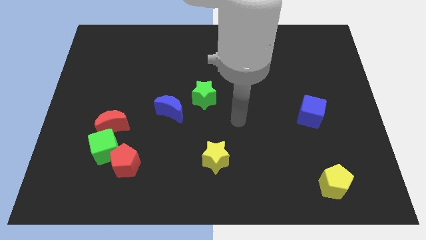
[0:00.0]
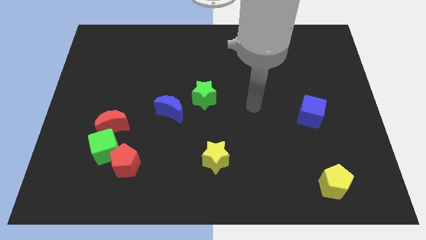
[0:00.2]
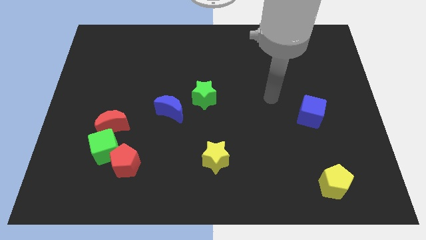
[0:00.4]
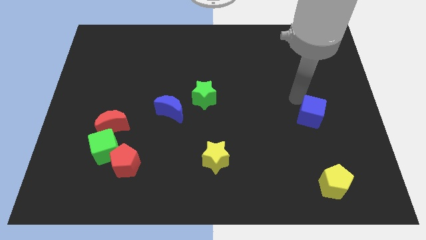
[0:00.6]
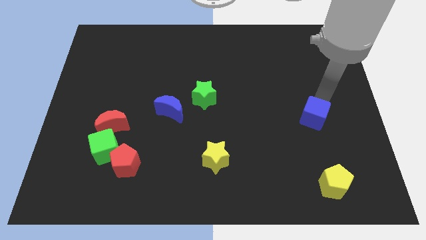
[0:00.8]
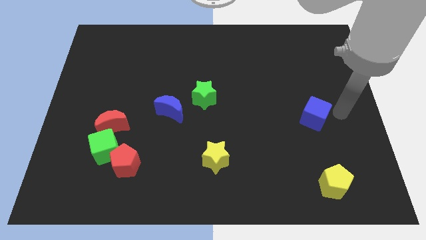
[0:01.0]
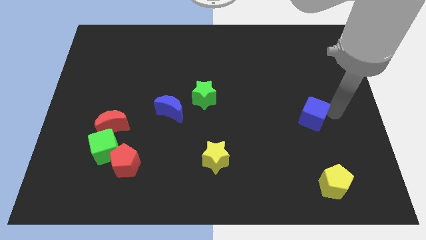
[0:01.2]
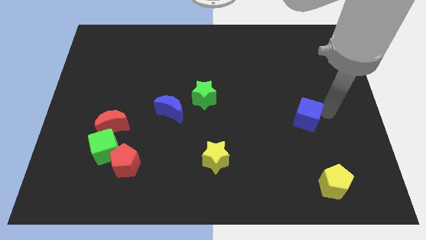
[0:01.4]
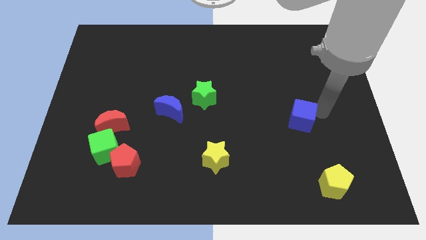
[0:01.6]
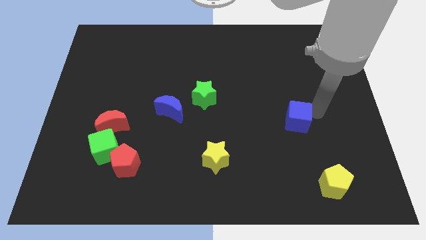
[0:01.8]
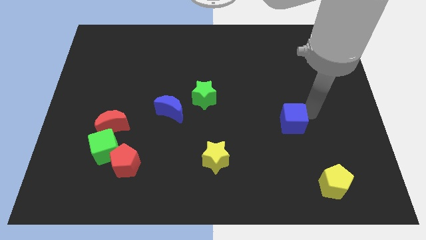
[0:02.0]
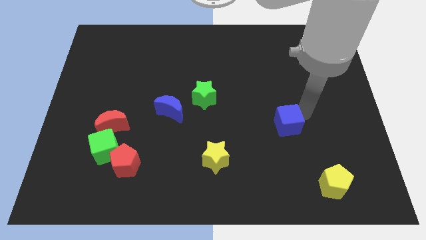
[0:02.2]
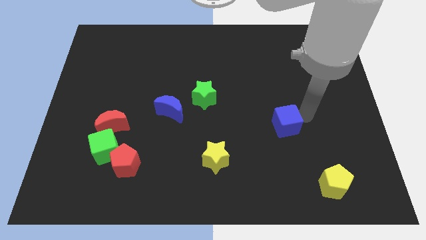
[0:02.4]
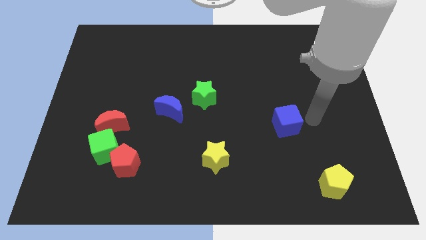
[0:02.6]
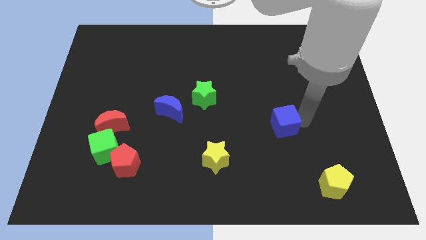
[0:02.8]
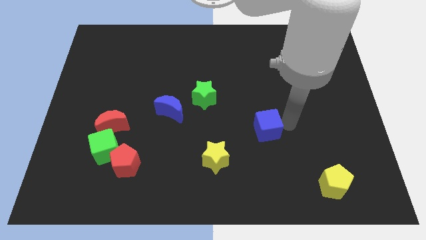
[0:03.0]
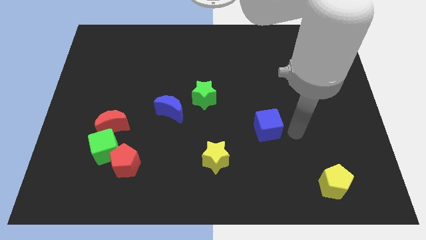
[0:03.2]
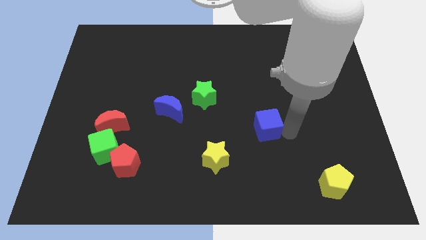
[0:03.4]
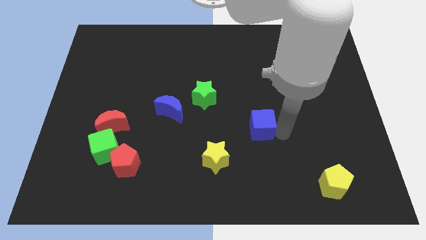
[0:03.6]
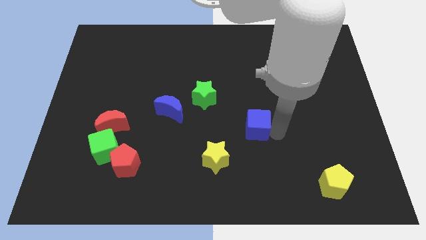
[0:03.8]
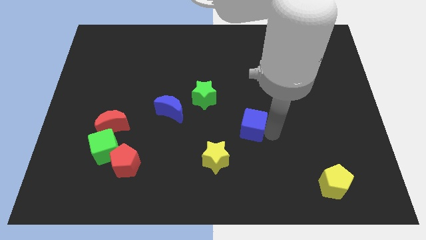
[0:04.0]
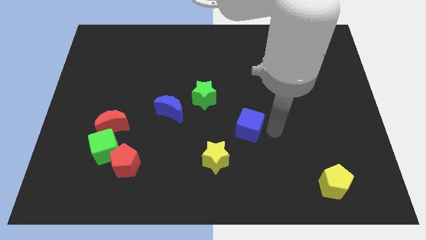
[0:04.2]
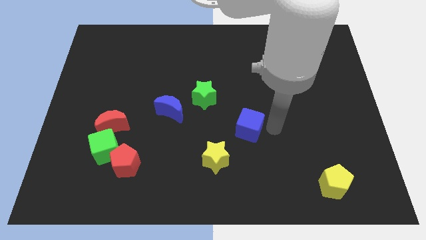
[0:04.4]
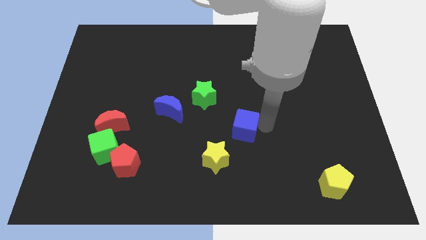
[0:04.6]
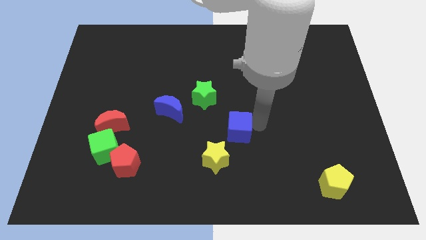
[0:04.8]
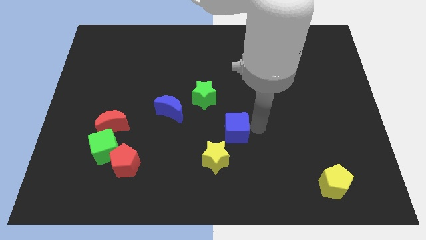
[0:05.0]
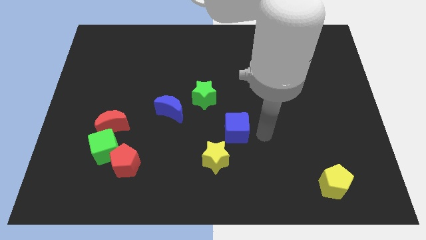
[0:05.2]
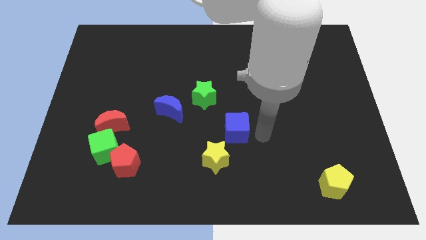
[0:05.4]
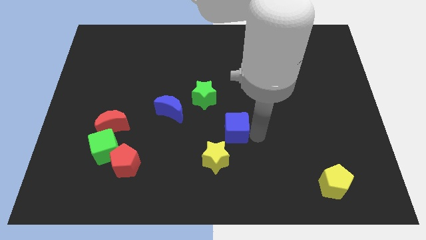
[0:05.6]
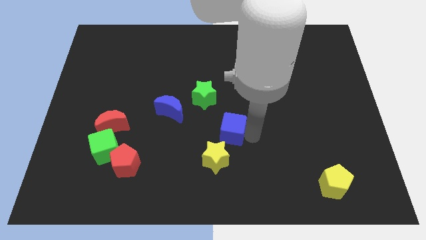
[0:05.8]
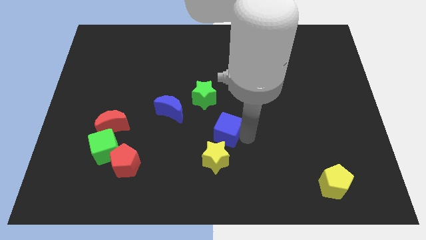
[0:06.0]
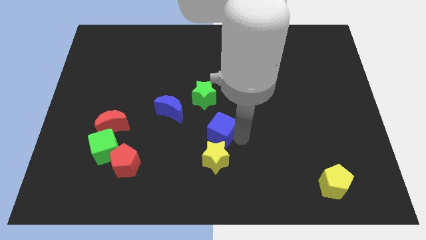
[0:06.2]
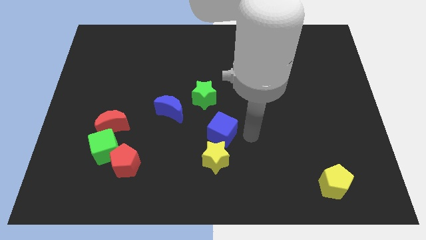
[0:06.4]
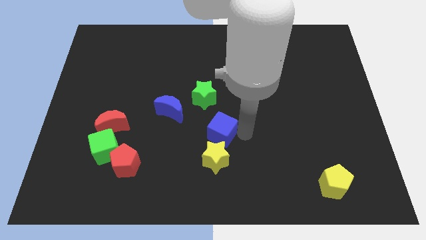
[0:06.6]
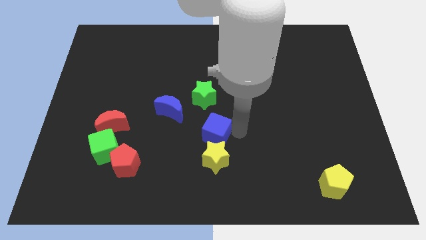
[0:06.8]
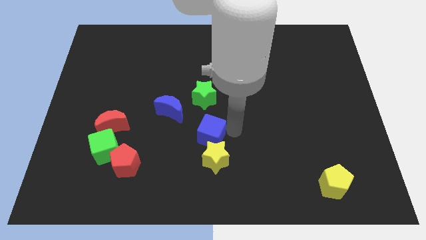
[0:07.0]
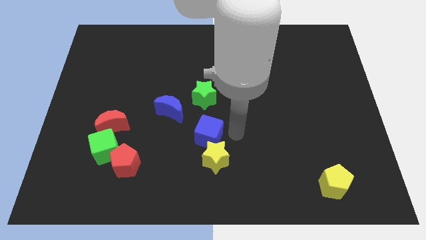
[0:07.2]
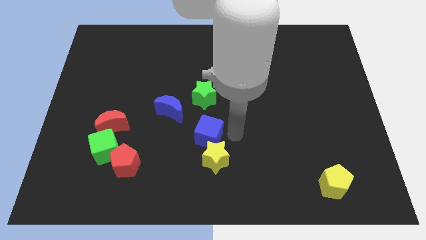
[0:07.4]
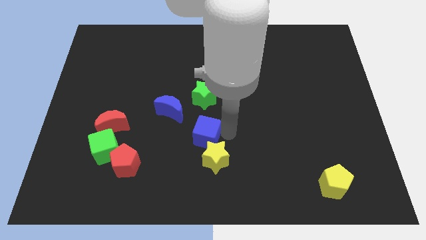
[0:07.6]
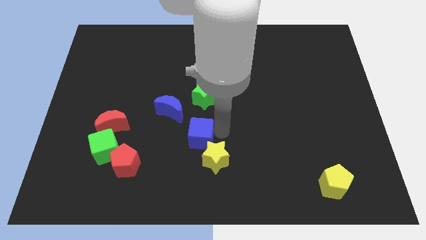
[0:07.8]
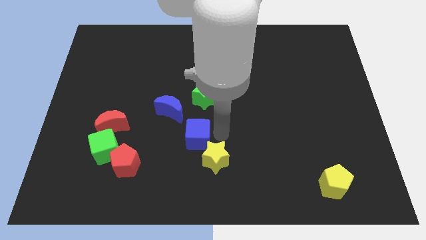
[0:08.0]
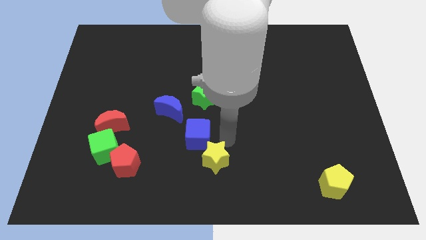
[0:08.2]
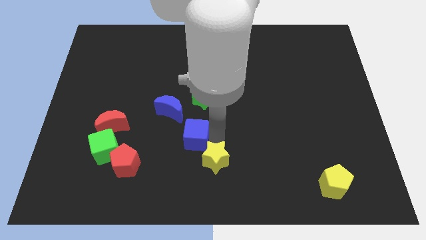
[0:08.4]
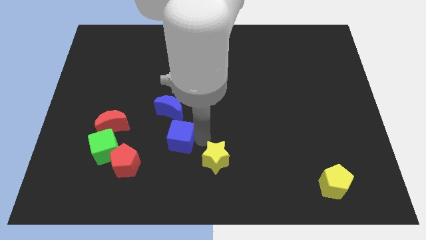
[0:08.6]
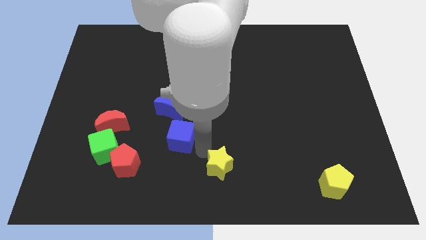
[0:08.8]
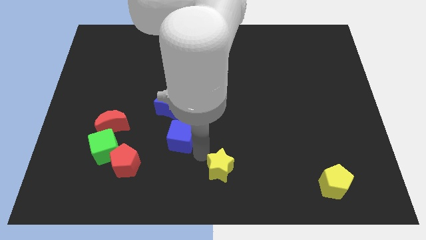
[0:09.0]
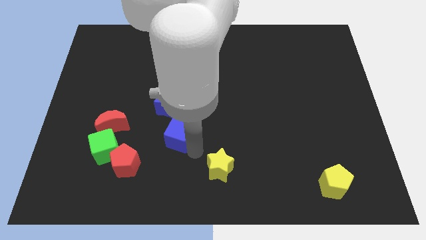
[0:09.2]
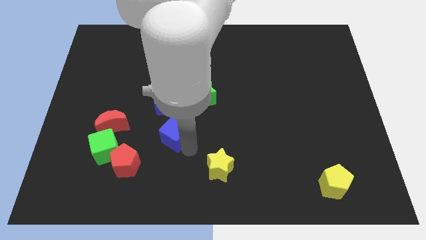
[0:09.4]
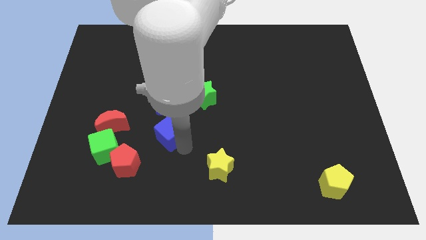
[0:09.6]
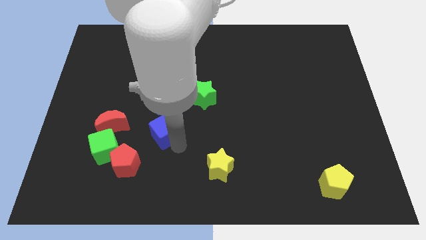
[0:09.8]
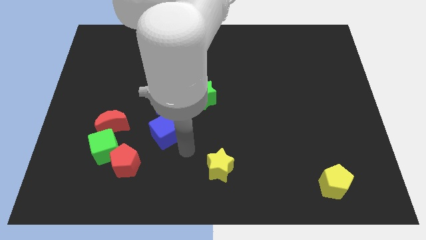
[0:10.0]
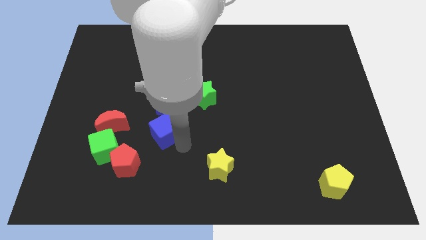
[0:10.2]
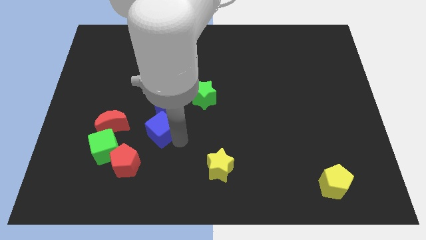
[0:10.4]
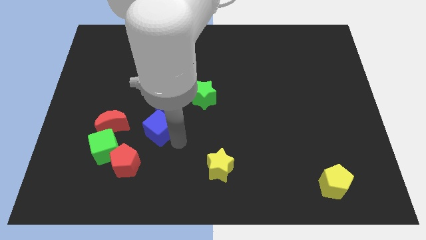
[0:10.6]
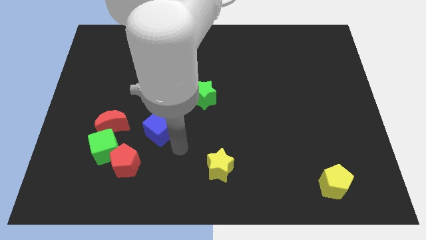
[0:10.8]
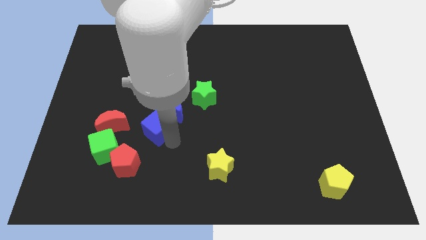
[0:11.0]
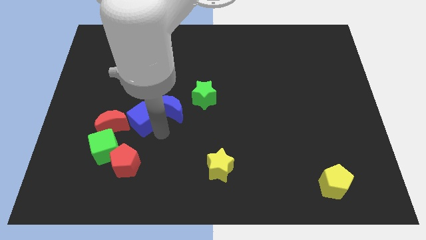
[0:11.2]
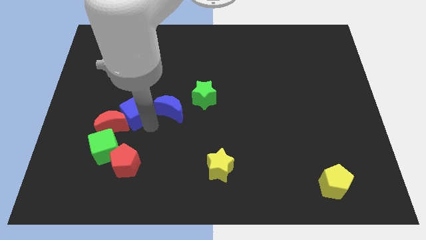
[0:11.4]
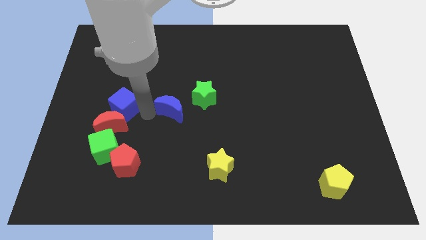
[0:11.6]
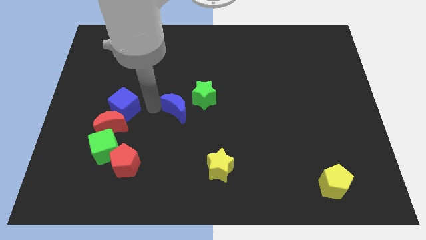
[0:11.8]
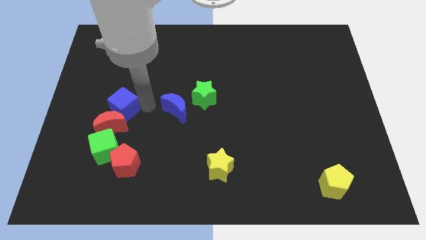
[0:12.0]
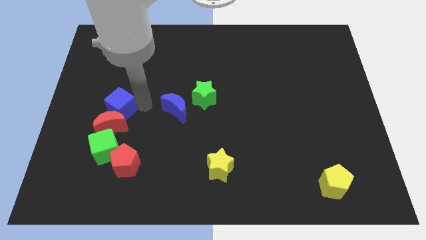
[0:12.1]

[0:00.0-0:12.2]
put the blue cube diagonally up and to the left of the red moon
